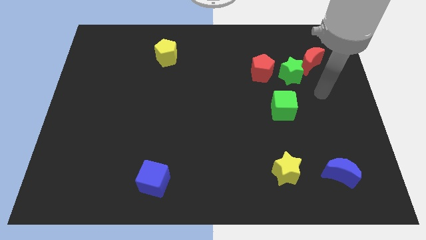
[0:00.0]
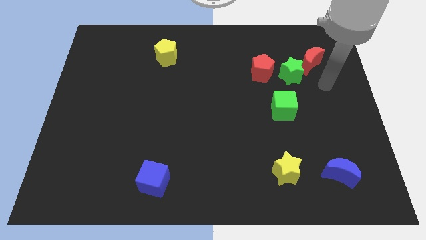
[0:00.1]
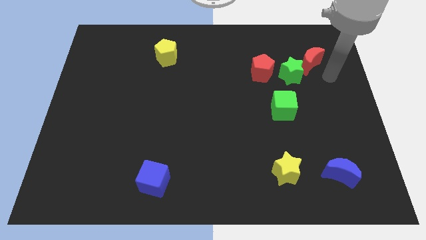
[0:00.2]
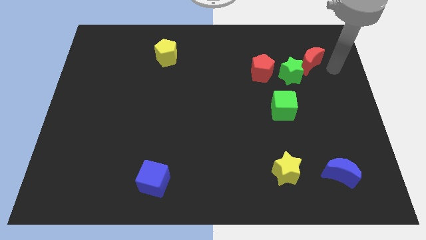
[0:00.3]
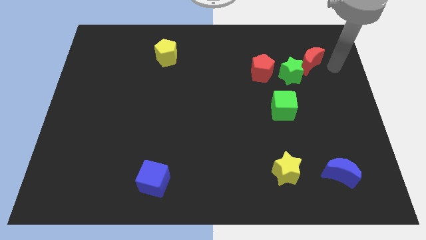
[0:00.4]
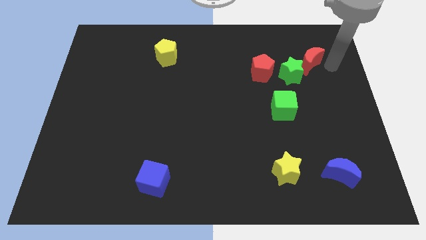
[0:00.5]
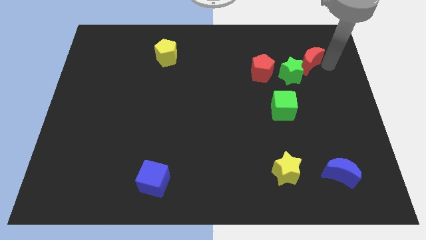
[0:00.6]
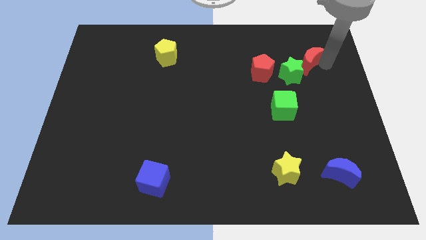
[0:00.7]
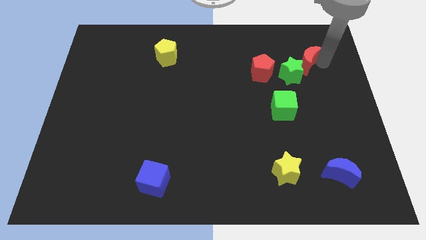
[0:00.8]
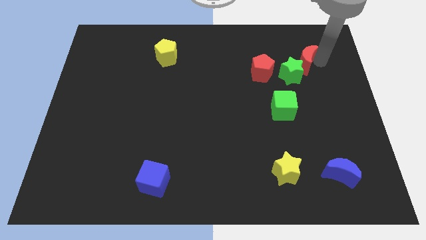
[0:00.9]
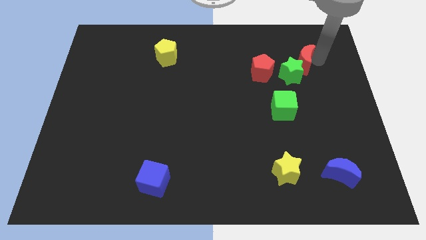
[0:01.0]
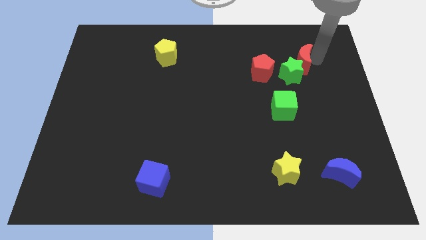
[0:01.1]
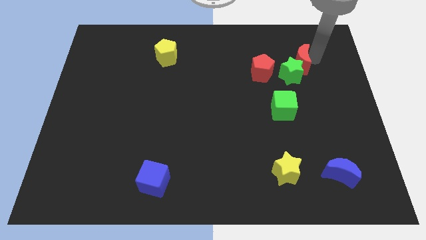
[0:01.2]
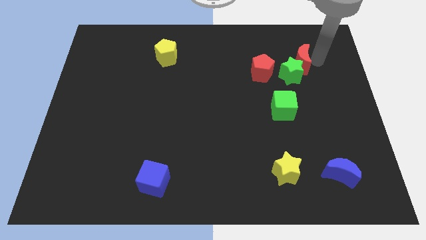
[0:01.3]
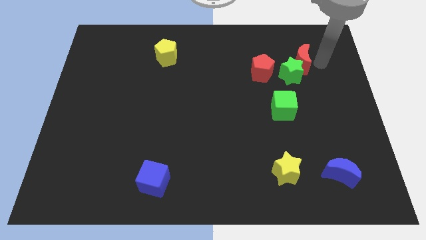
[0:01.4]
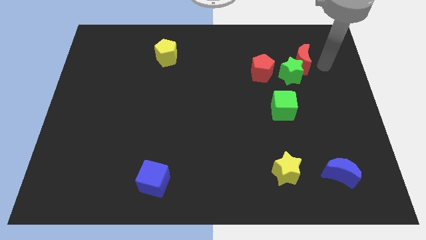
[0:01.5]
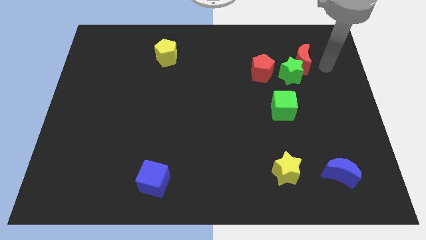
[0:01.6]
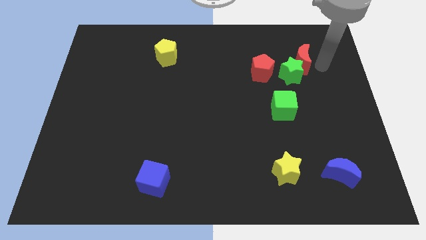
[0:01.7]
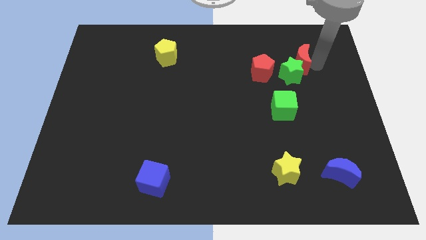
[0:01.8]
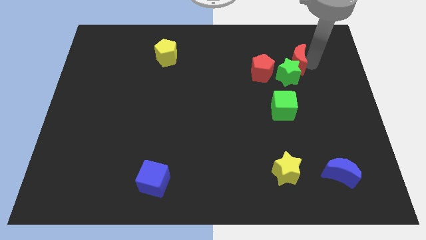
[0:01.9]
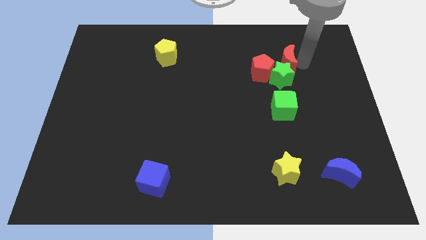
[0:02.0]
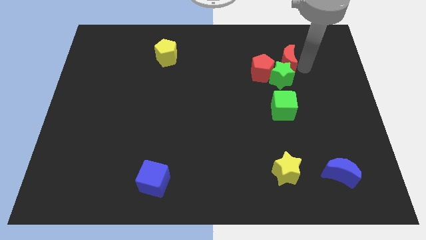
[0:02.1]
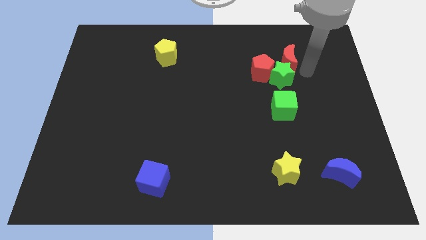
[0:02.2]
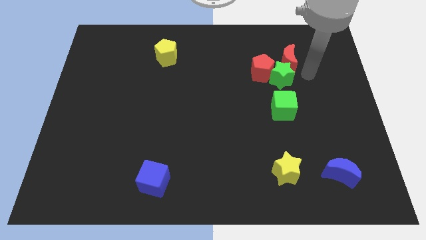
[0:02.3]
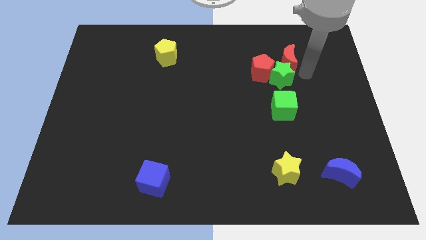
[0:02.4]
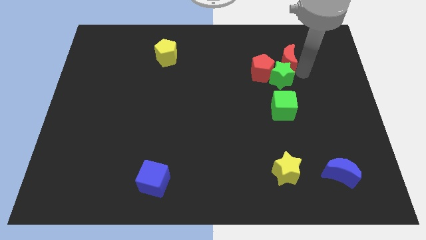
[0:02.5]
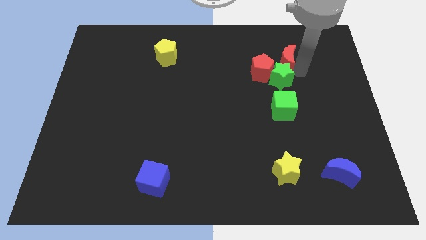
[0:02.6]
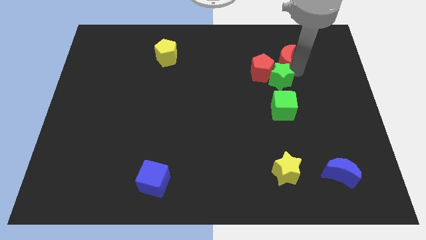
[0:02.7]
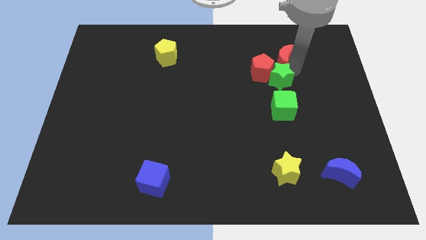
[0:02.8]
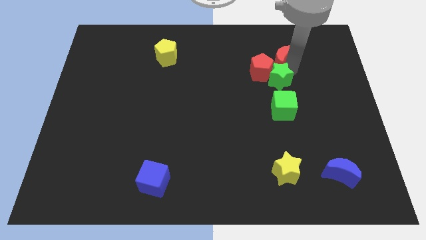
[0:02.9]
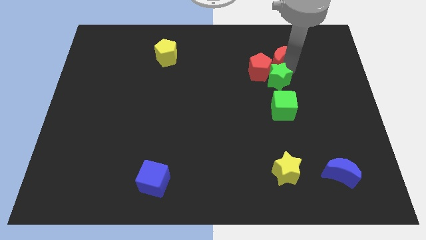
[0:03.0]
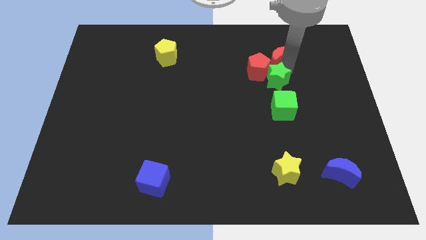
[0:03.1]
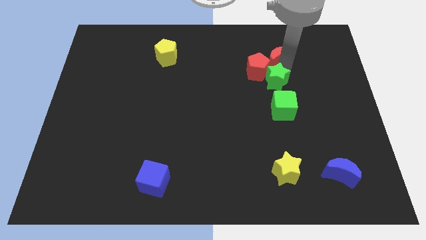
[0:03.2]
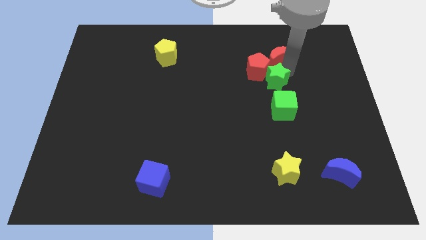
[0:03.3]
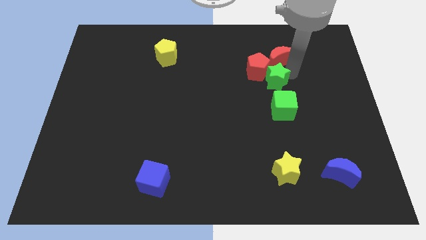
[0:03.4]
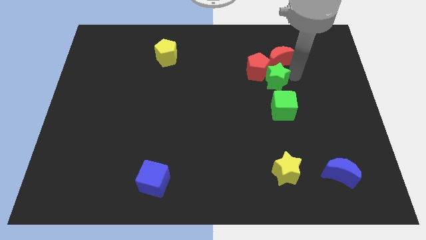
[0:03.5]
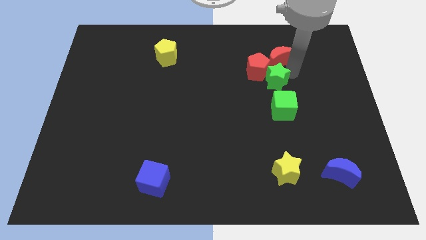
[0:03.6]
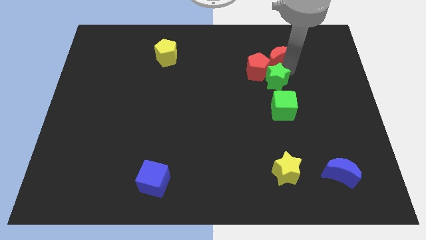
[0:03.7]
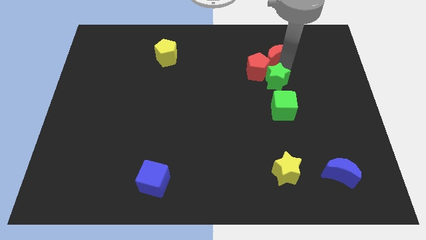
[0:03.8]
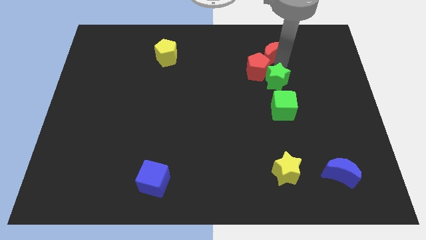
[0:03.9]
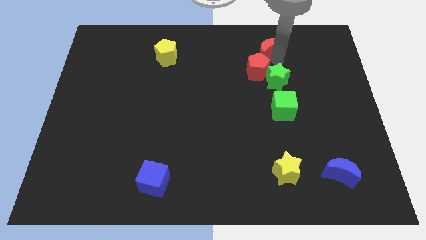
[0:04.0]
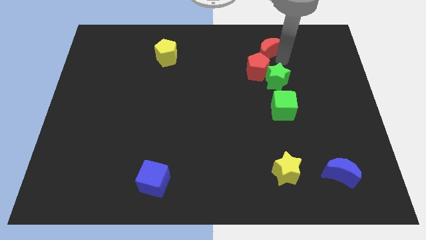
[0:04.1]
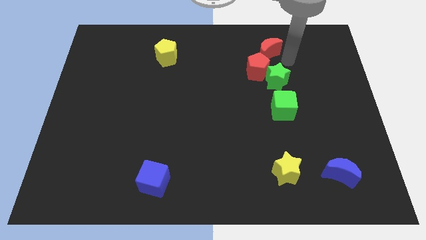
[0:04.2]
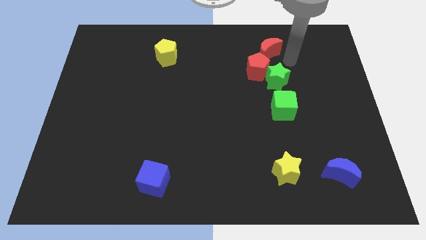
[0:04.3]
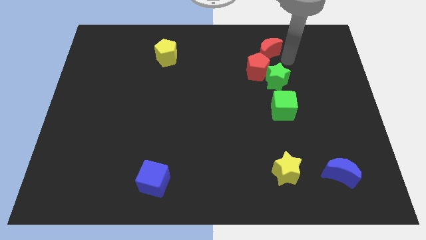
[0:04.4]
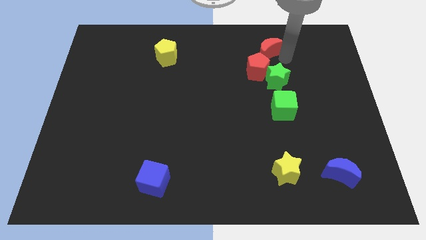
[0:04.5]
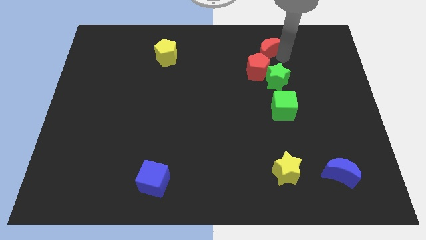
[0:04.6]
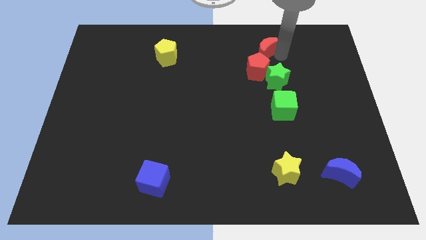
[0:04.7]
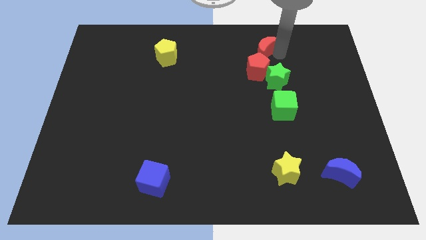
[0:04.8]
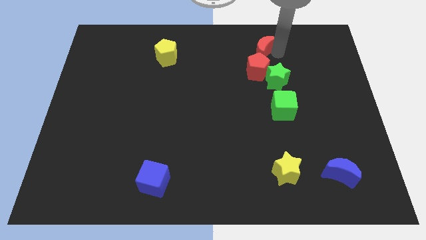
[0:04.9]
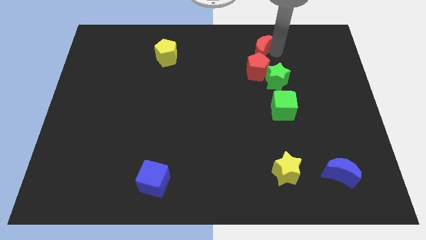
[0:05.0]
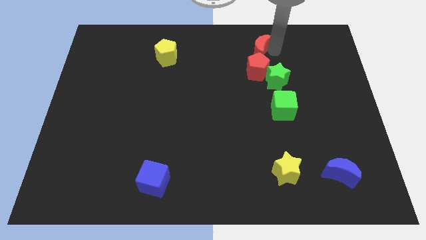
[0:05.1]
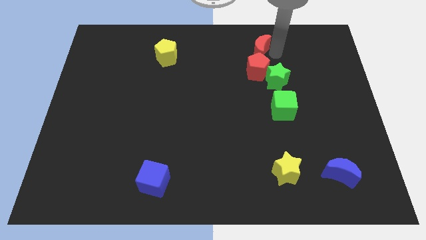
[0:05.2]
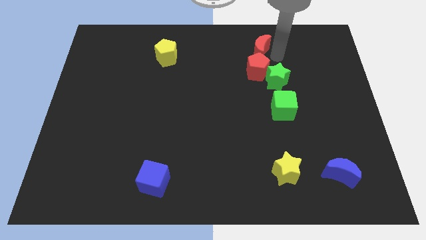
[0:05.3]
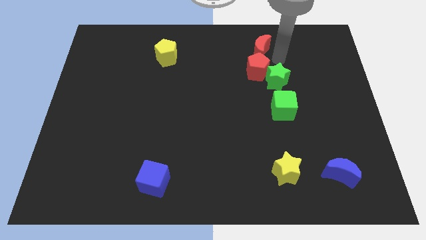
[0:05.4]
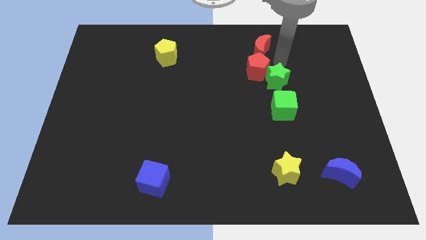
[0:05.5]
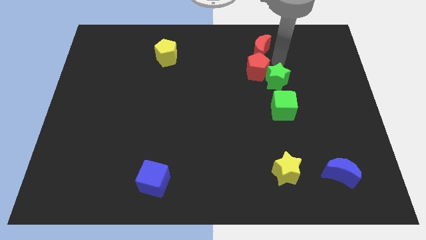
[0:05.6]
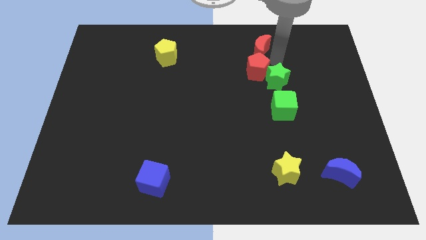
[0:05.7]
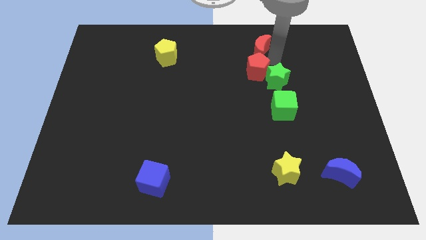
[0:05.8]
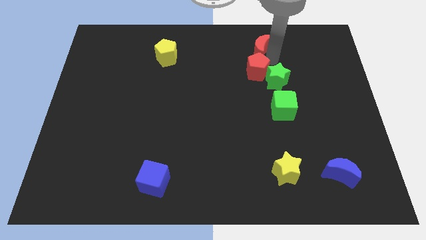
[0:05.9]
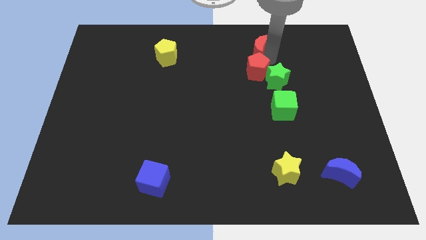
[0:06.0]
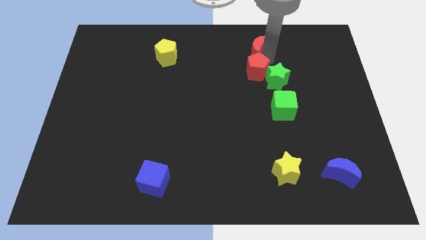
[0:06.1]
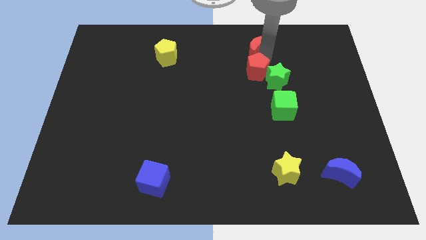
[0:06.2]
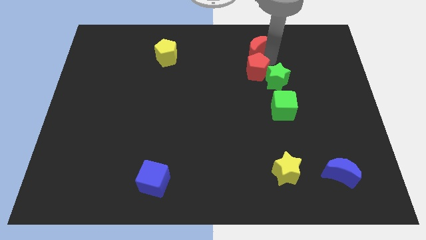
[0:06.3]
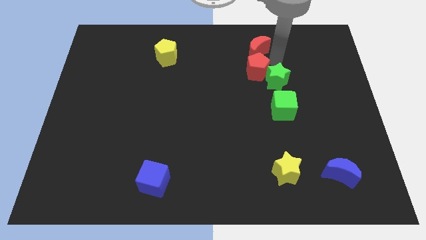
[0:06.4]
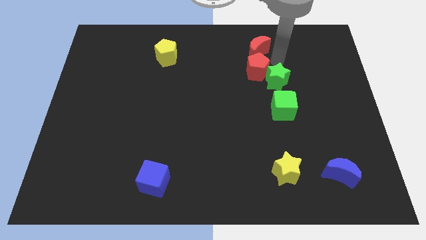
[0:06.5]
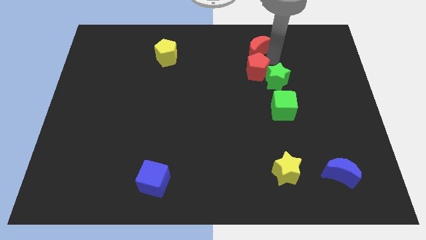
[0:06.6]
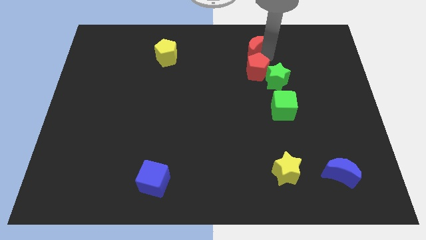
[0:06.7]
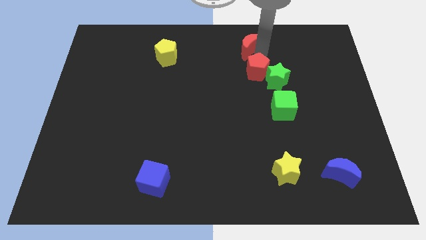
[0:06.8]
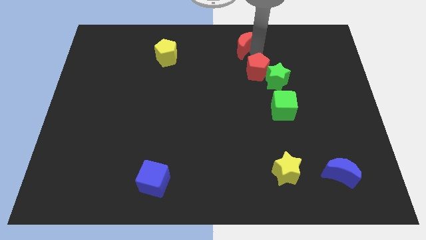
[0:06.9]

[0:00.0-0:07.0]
push the red moon to the towards your base
